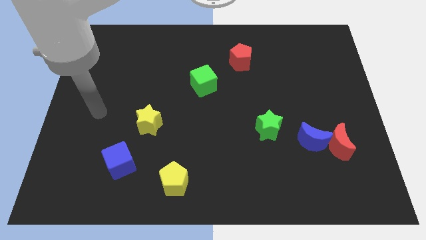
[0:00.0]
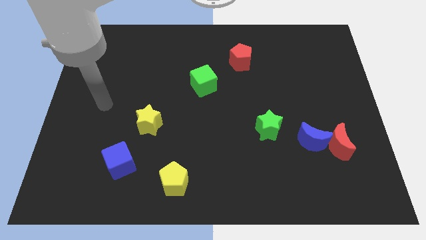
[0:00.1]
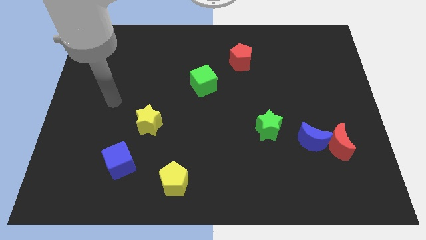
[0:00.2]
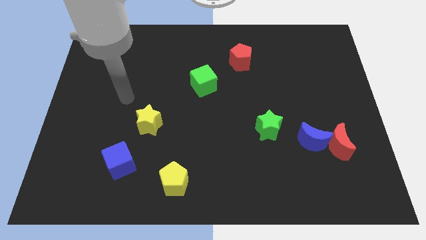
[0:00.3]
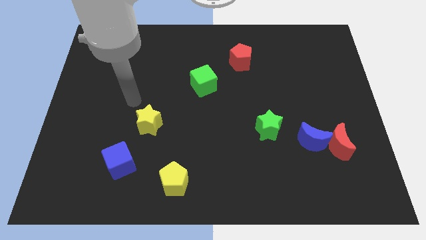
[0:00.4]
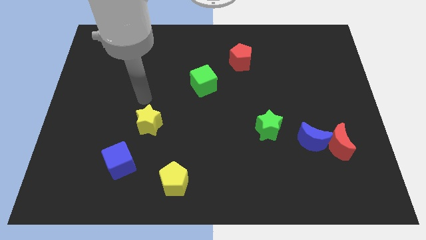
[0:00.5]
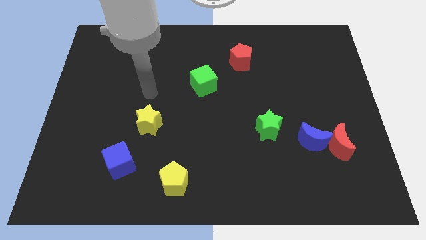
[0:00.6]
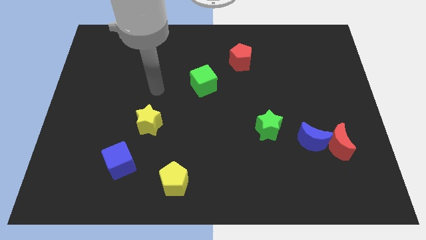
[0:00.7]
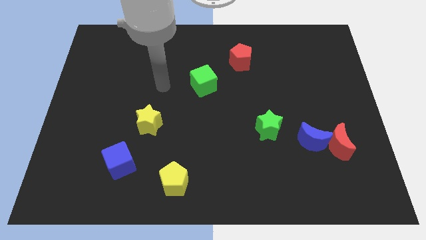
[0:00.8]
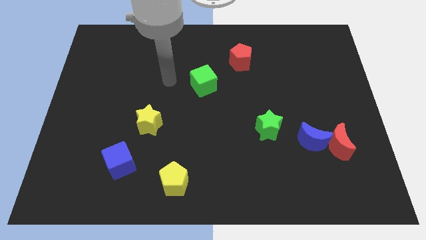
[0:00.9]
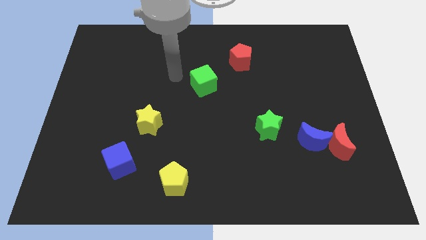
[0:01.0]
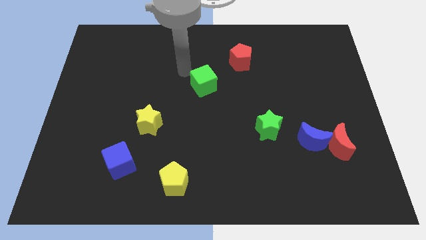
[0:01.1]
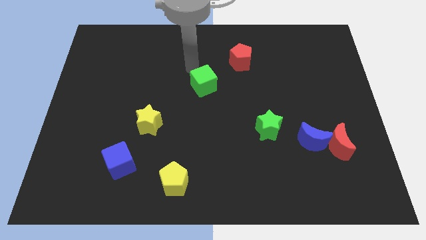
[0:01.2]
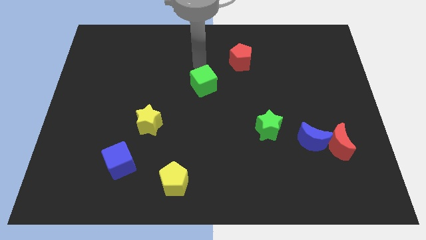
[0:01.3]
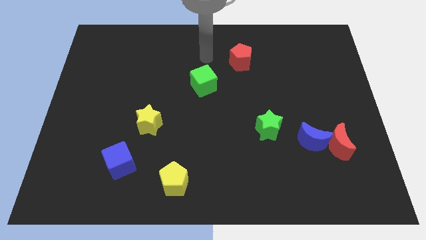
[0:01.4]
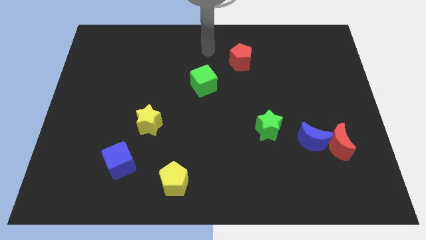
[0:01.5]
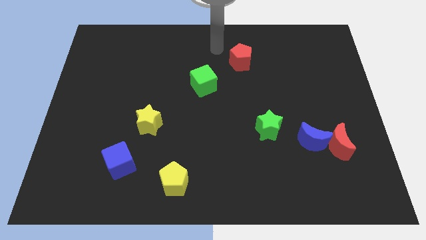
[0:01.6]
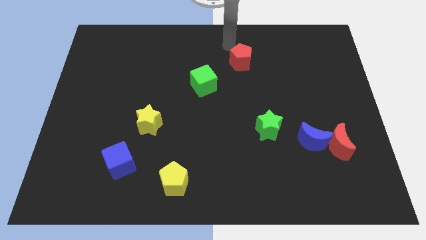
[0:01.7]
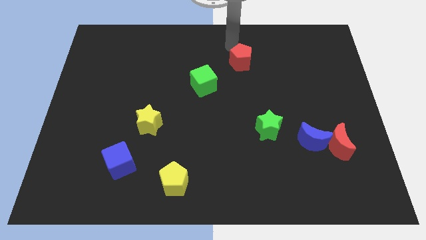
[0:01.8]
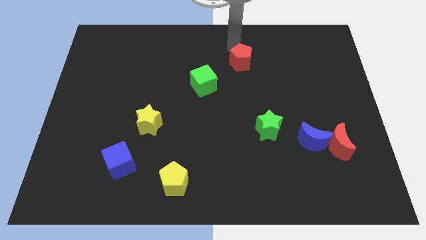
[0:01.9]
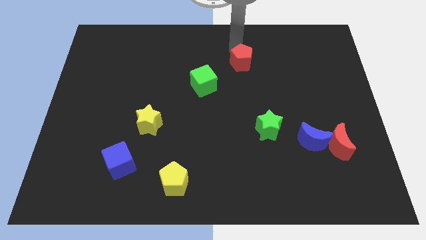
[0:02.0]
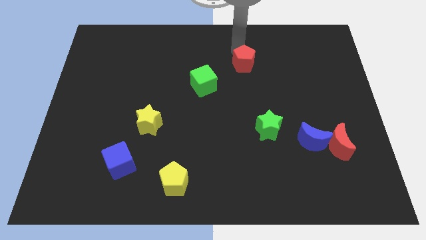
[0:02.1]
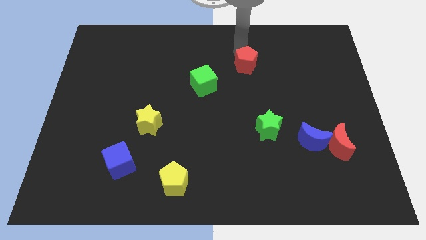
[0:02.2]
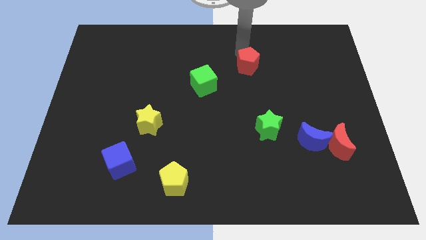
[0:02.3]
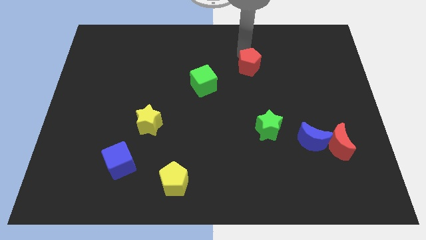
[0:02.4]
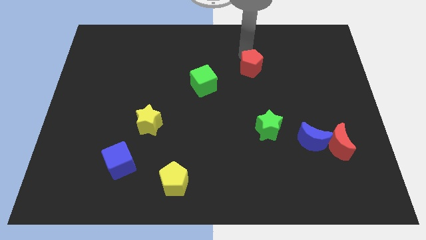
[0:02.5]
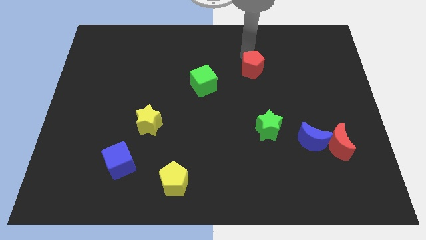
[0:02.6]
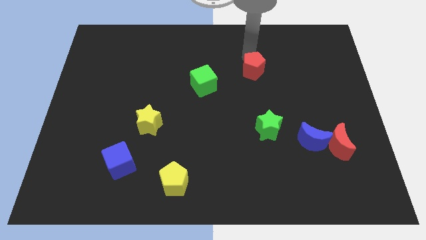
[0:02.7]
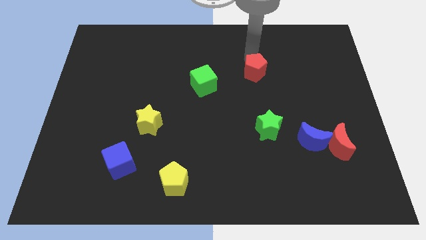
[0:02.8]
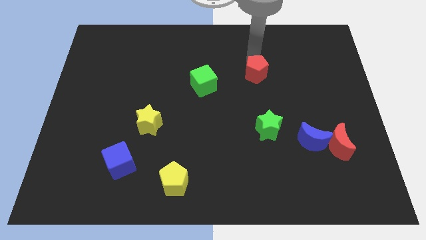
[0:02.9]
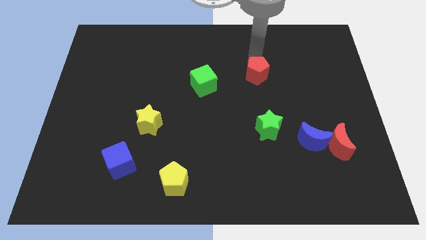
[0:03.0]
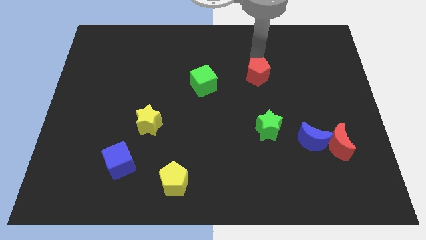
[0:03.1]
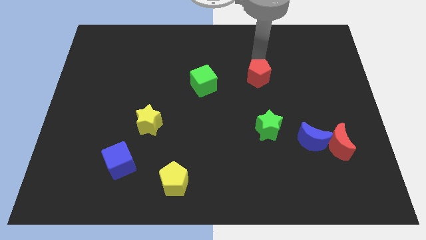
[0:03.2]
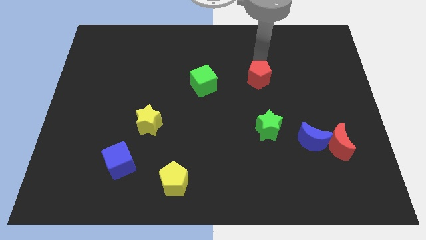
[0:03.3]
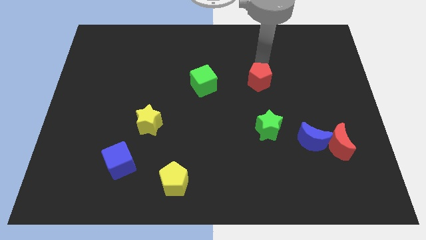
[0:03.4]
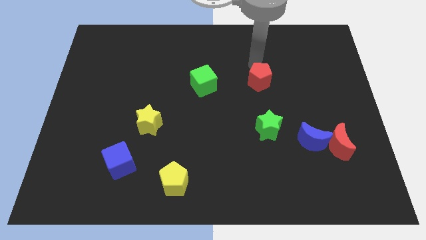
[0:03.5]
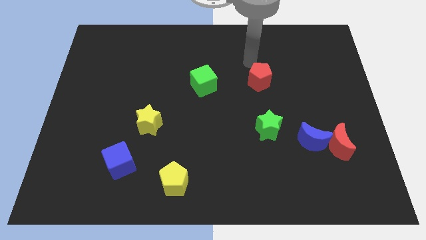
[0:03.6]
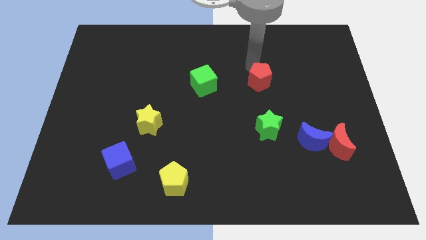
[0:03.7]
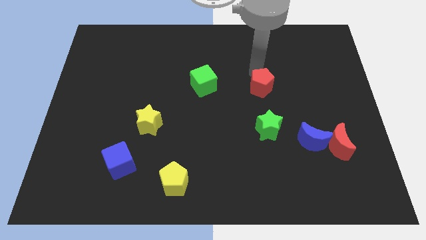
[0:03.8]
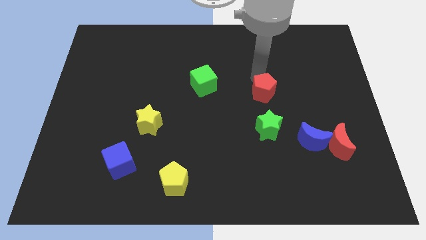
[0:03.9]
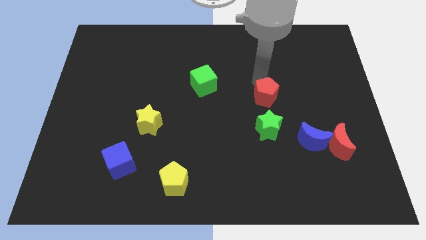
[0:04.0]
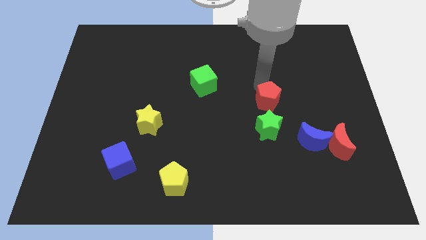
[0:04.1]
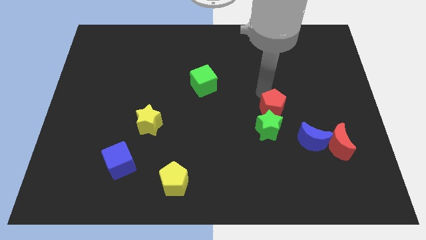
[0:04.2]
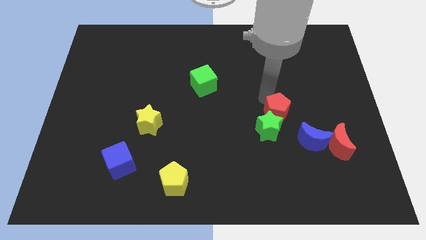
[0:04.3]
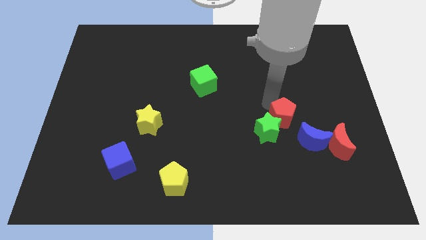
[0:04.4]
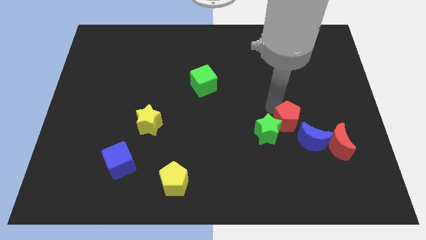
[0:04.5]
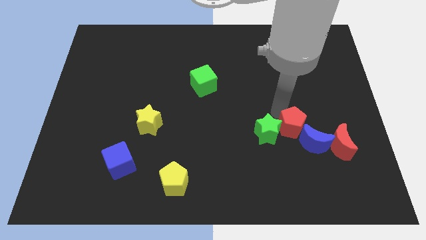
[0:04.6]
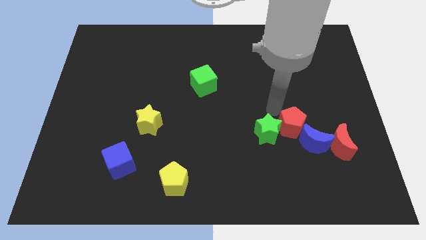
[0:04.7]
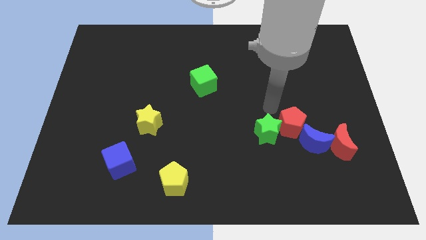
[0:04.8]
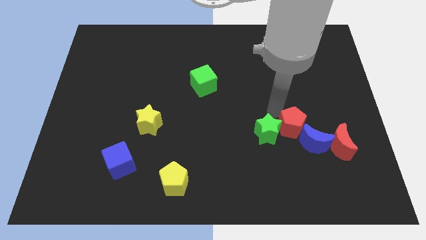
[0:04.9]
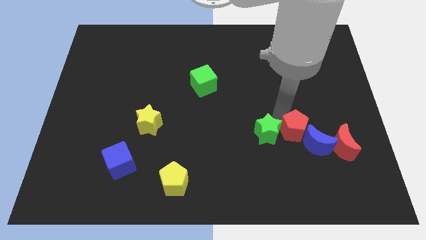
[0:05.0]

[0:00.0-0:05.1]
slide the red pentagon towards the blue moon

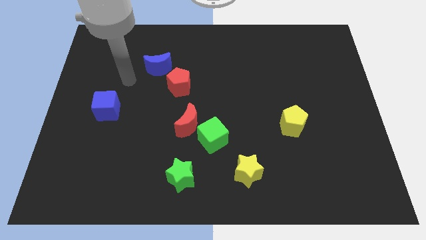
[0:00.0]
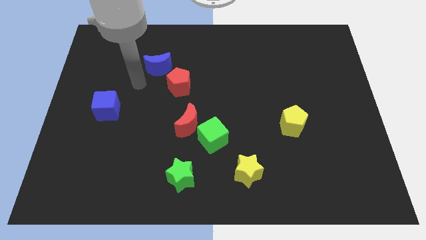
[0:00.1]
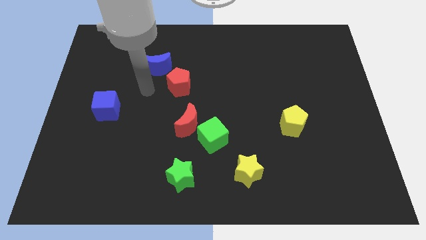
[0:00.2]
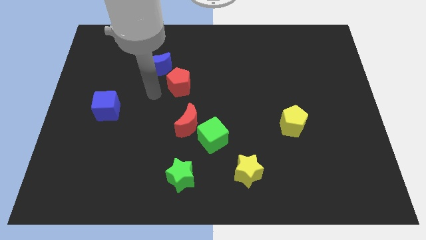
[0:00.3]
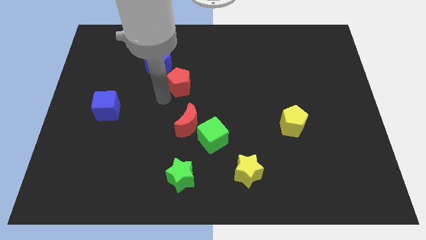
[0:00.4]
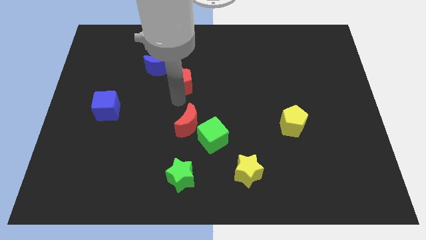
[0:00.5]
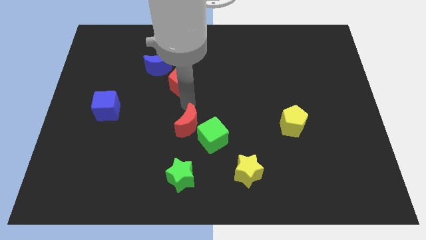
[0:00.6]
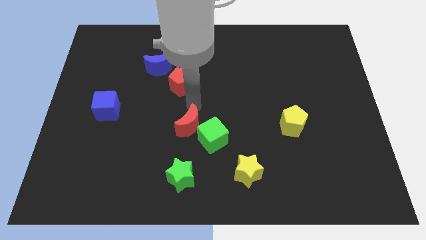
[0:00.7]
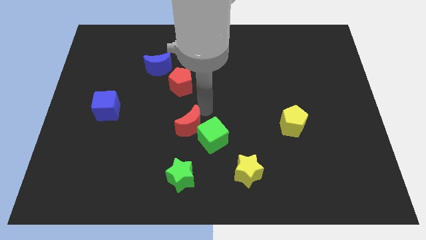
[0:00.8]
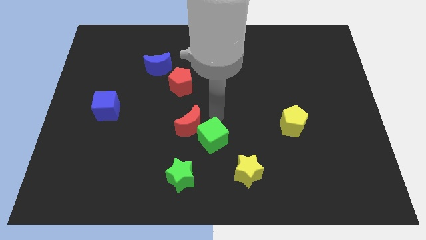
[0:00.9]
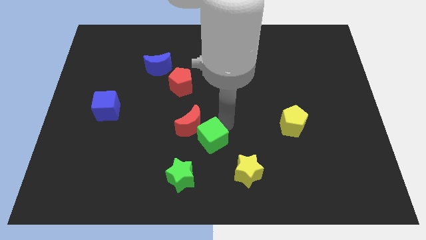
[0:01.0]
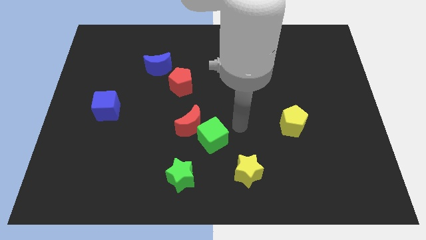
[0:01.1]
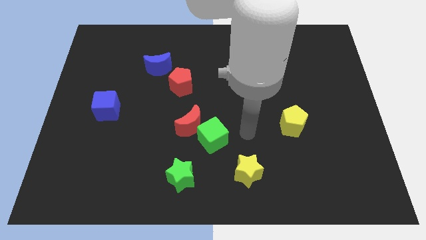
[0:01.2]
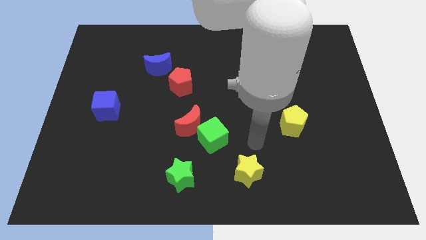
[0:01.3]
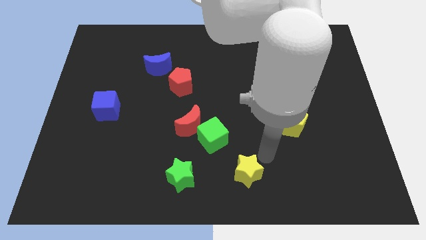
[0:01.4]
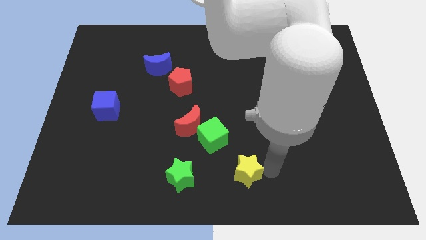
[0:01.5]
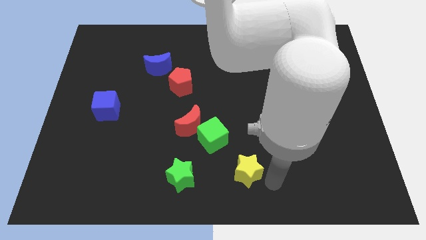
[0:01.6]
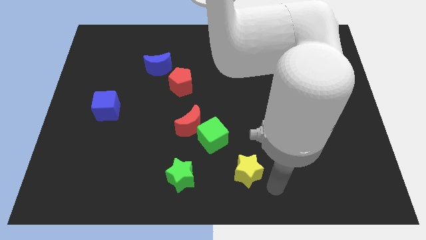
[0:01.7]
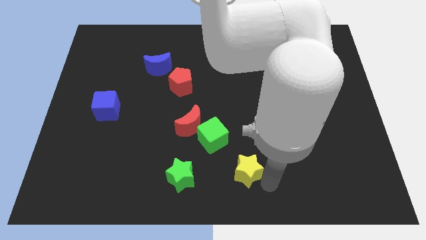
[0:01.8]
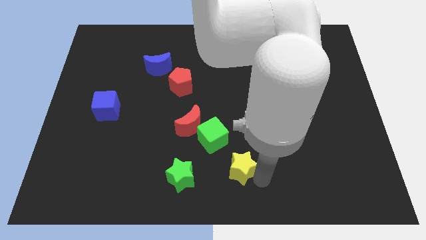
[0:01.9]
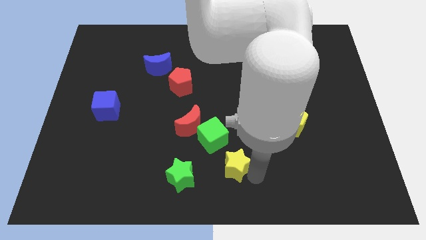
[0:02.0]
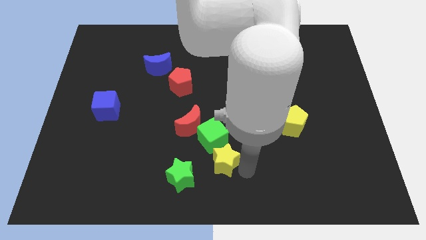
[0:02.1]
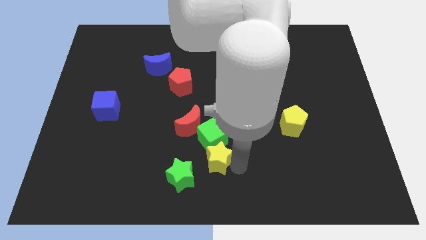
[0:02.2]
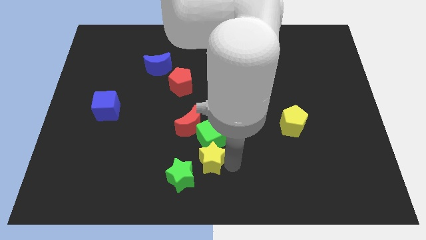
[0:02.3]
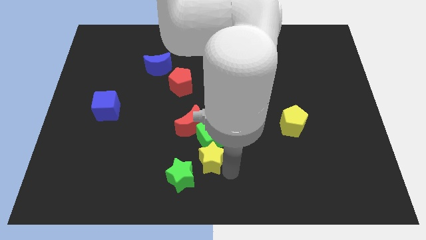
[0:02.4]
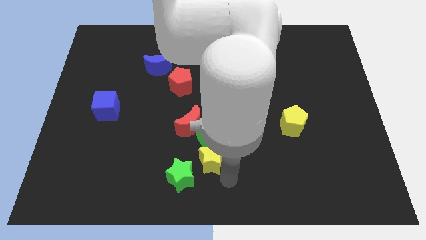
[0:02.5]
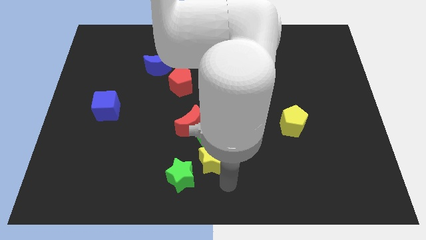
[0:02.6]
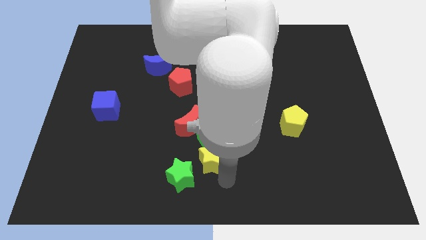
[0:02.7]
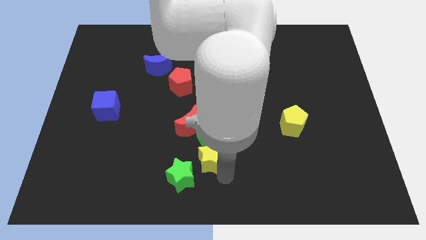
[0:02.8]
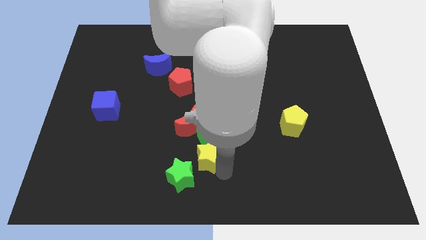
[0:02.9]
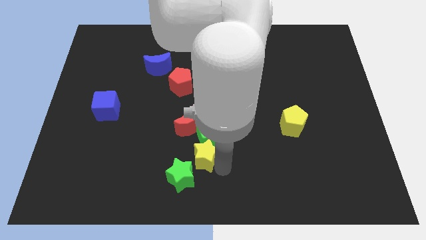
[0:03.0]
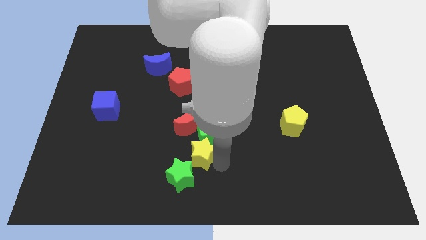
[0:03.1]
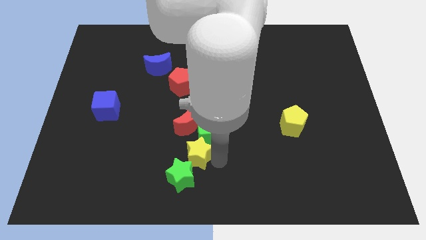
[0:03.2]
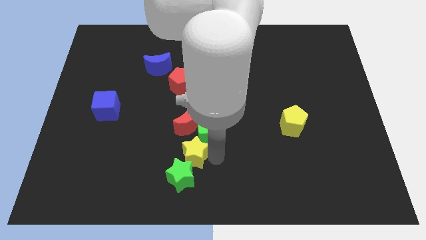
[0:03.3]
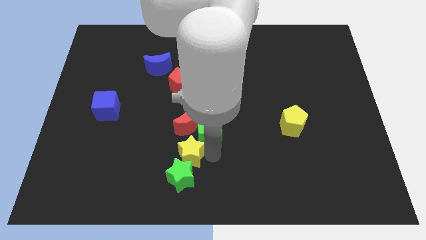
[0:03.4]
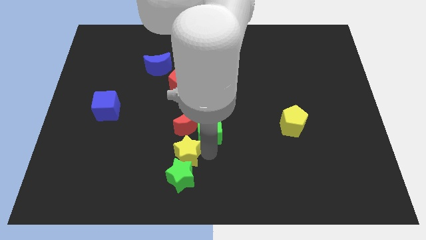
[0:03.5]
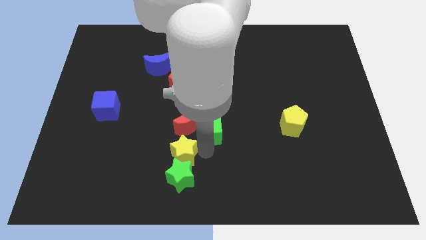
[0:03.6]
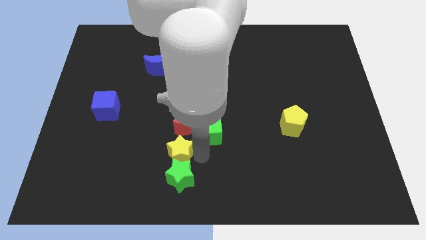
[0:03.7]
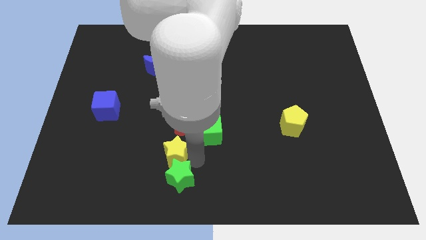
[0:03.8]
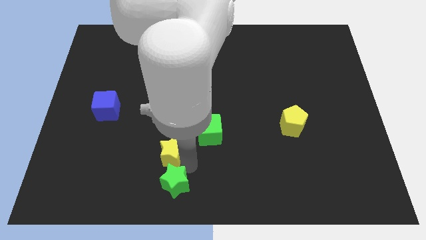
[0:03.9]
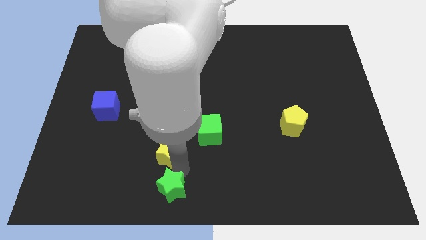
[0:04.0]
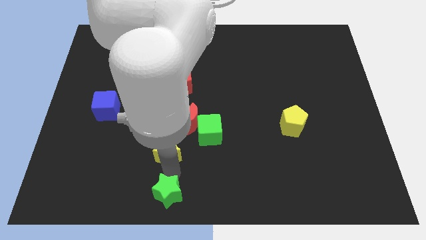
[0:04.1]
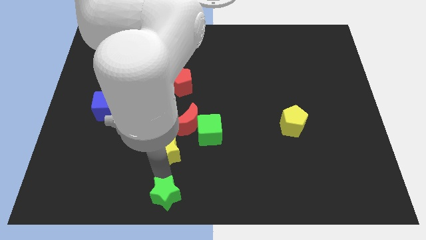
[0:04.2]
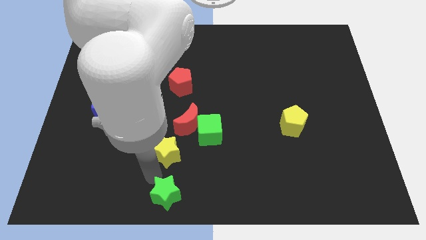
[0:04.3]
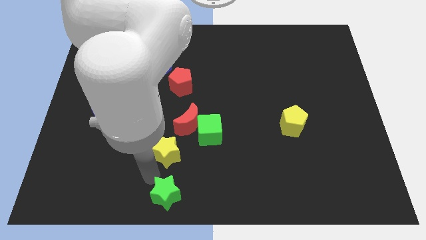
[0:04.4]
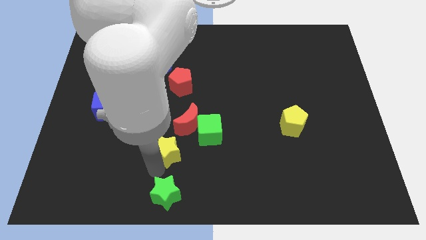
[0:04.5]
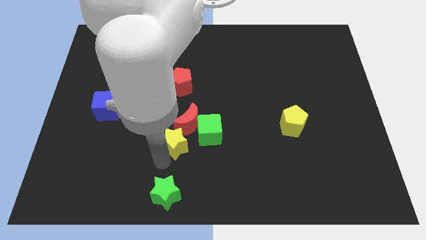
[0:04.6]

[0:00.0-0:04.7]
move the yellow star next to the red moon
